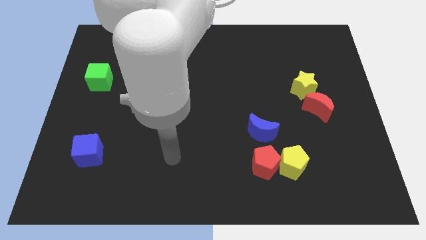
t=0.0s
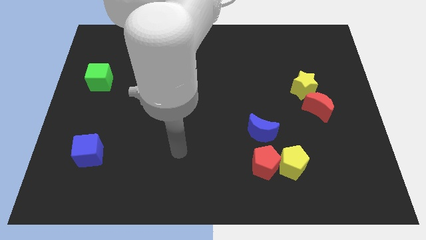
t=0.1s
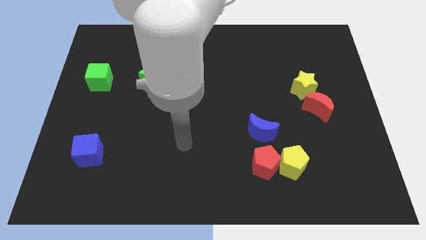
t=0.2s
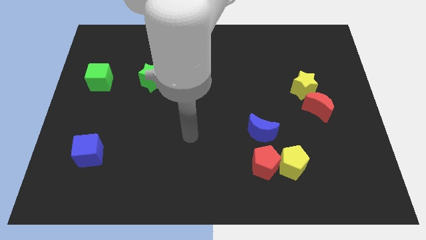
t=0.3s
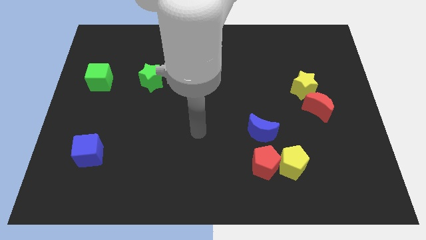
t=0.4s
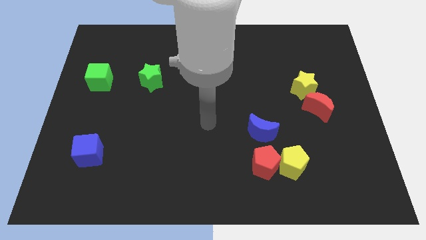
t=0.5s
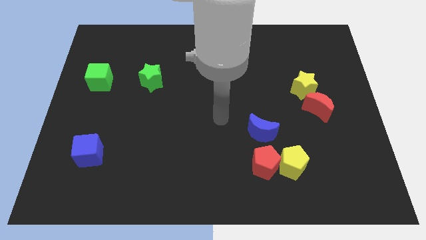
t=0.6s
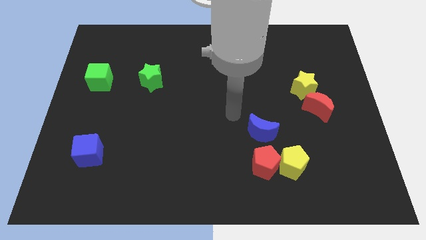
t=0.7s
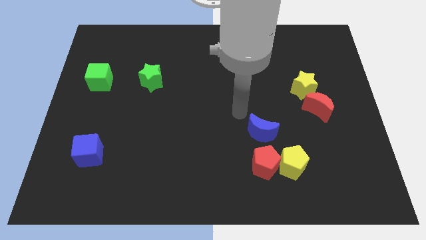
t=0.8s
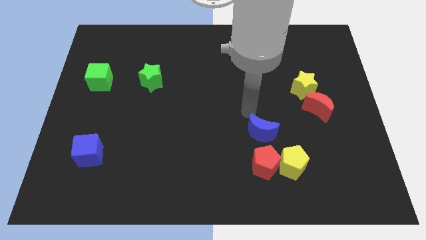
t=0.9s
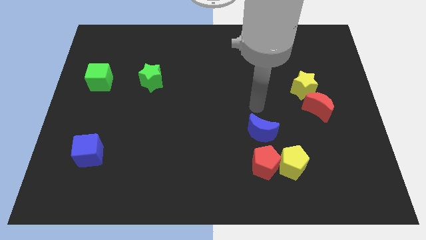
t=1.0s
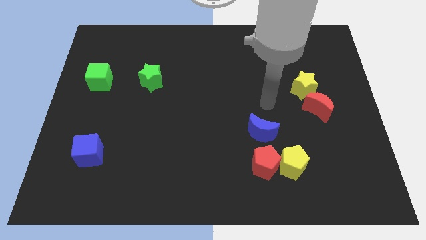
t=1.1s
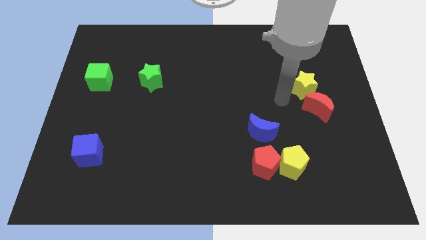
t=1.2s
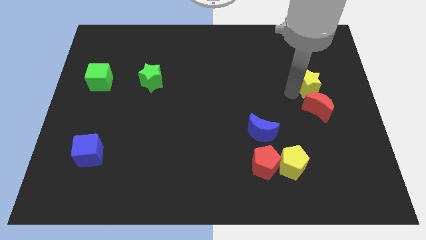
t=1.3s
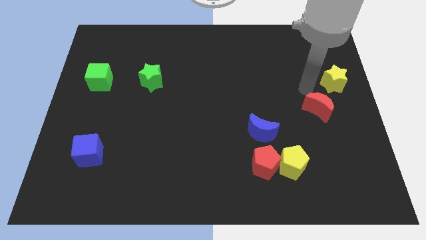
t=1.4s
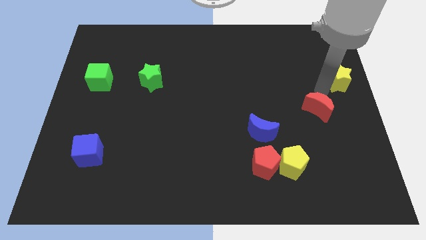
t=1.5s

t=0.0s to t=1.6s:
separate the red moon from the yellow star

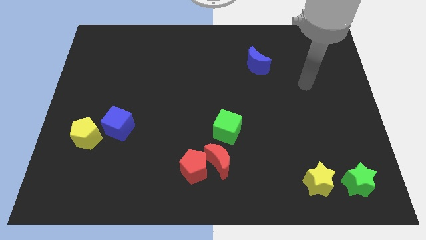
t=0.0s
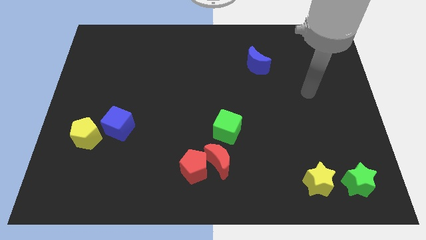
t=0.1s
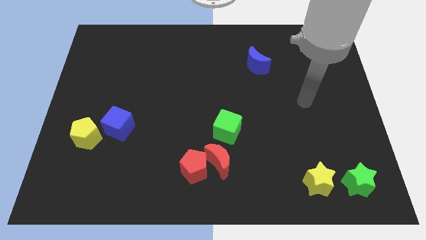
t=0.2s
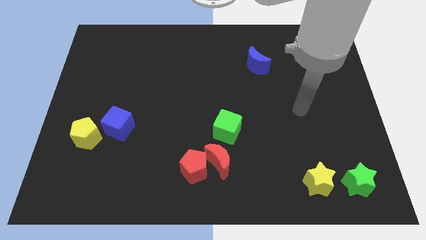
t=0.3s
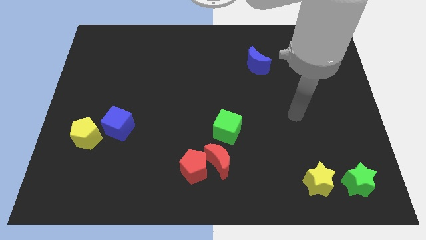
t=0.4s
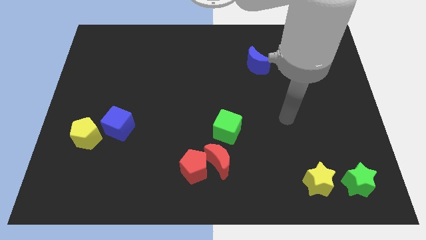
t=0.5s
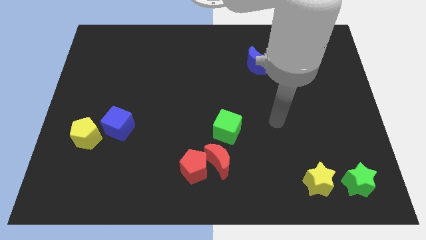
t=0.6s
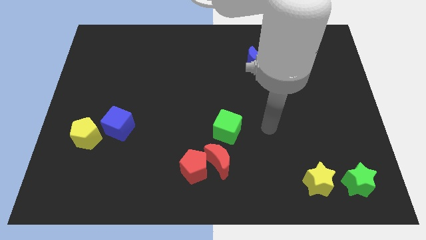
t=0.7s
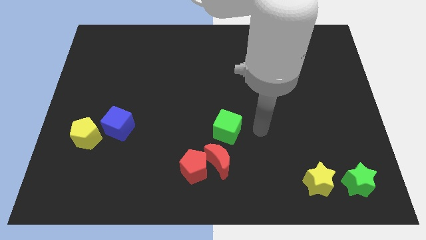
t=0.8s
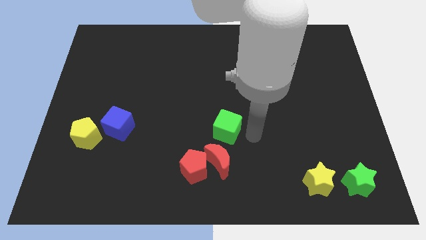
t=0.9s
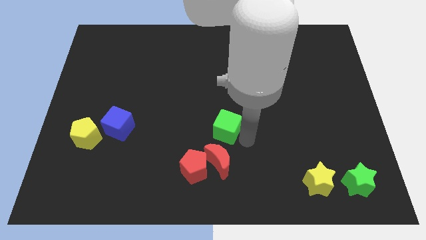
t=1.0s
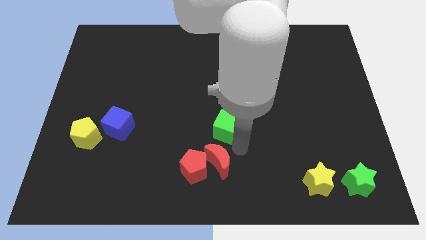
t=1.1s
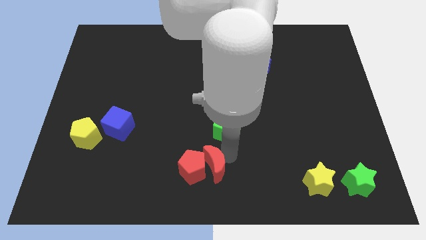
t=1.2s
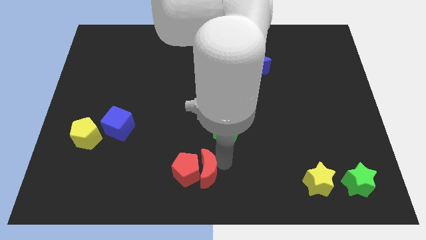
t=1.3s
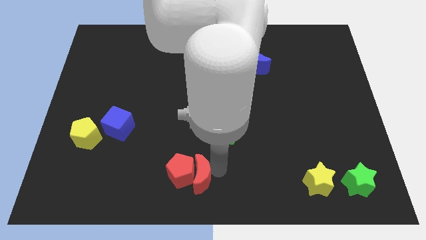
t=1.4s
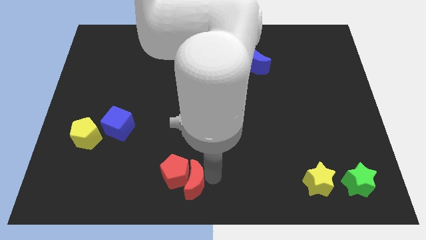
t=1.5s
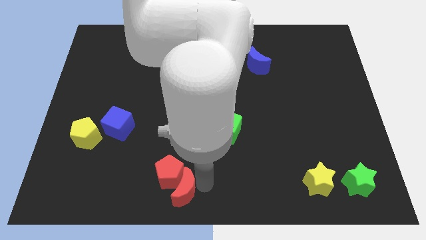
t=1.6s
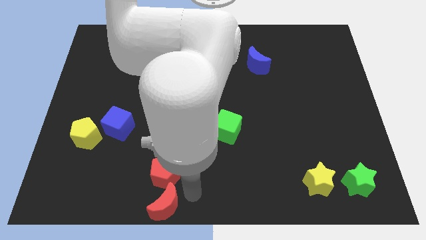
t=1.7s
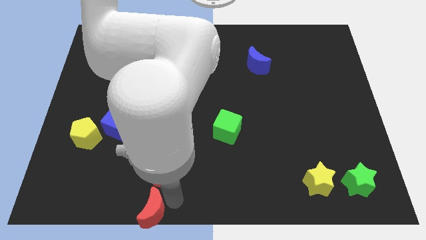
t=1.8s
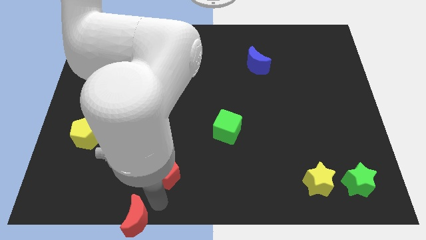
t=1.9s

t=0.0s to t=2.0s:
separate the red pentagon from the red moon

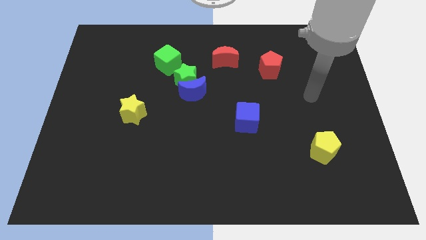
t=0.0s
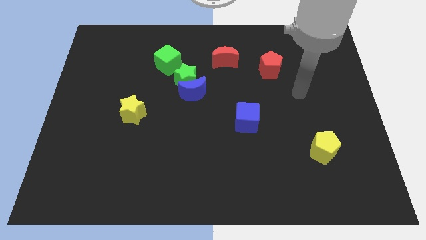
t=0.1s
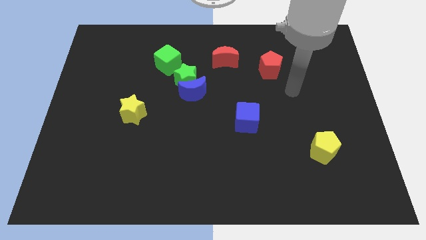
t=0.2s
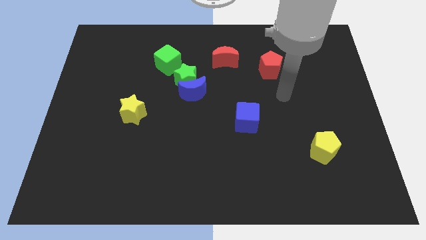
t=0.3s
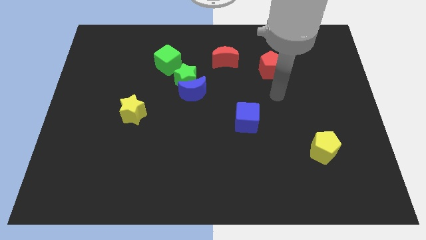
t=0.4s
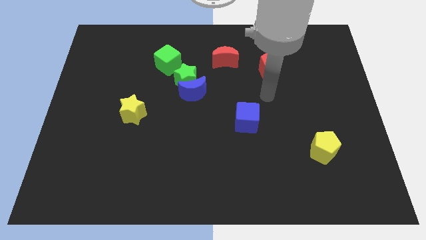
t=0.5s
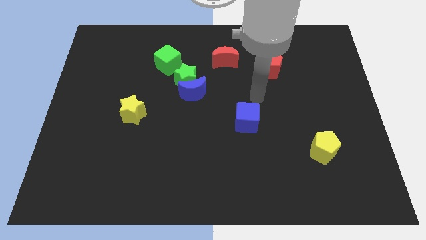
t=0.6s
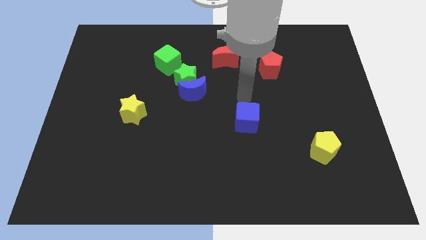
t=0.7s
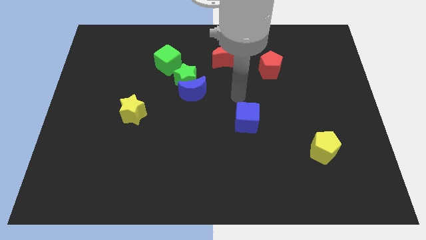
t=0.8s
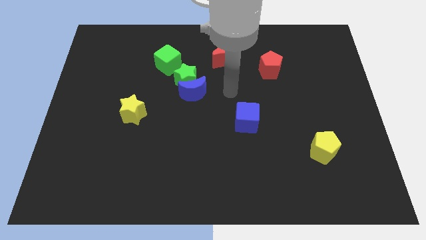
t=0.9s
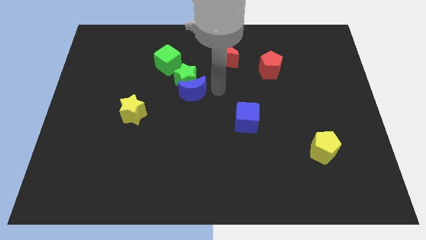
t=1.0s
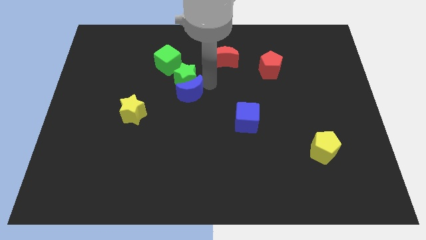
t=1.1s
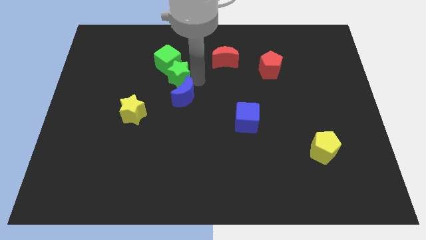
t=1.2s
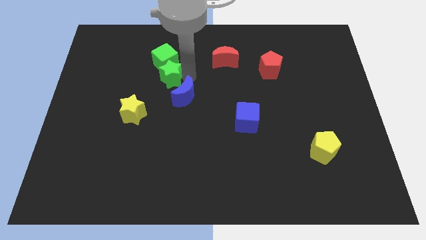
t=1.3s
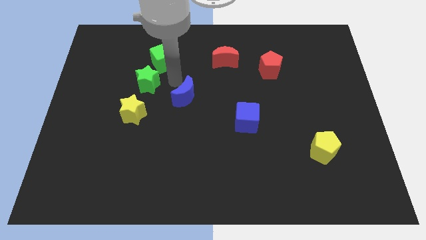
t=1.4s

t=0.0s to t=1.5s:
pull the blue moon apart from the green star

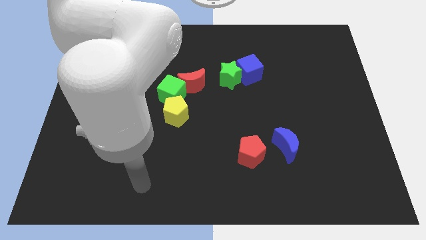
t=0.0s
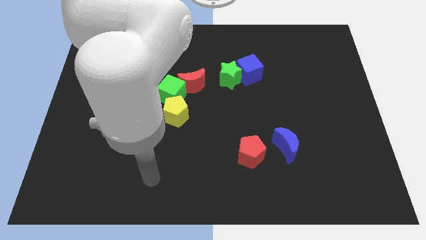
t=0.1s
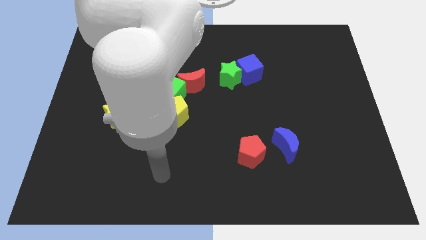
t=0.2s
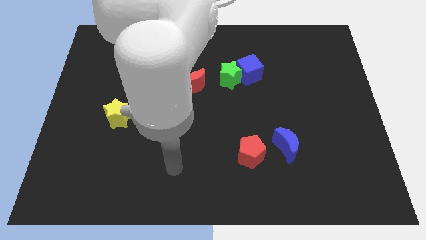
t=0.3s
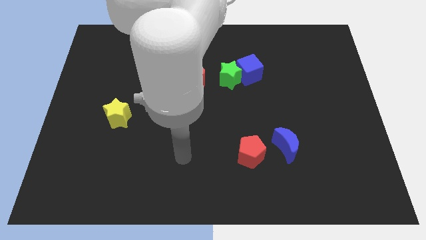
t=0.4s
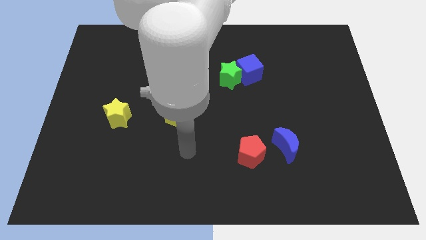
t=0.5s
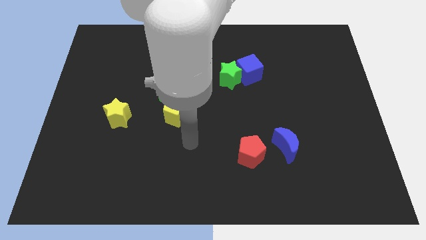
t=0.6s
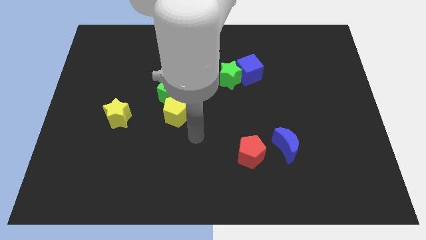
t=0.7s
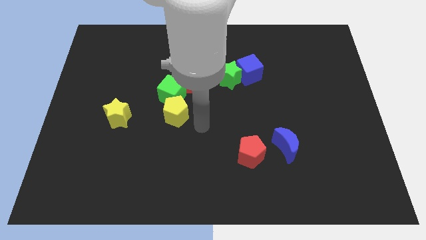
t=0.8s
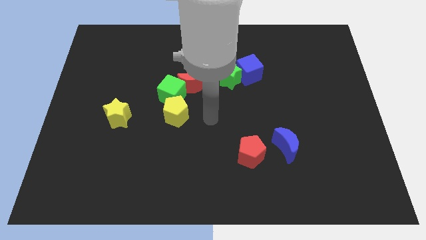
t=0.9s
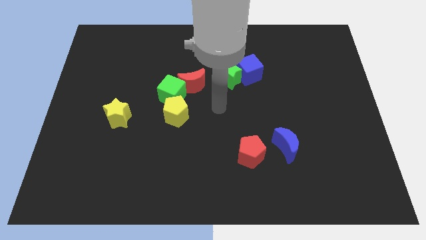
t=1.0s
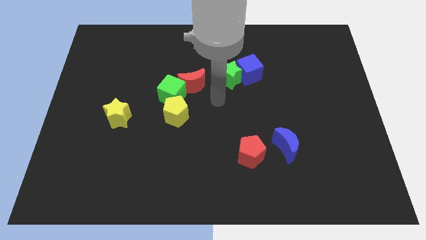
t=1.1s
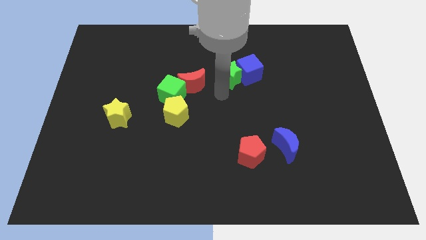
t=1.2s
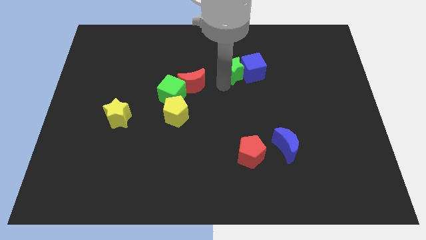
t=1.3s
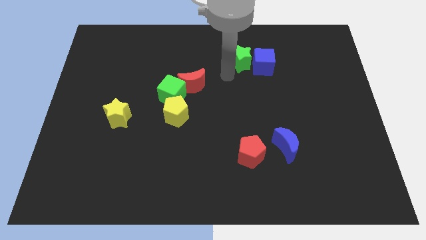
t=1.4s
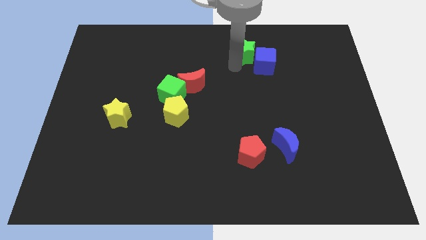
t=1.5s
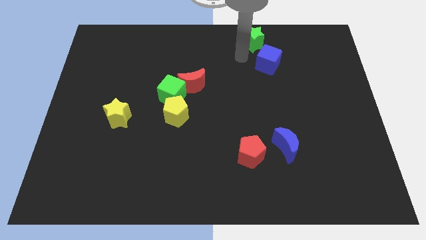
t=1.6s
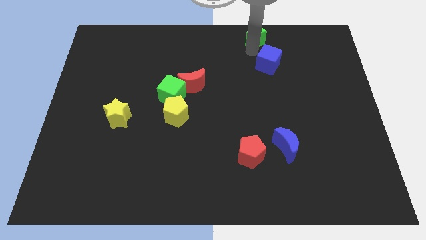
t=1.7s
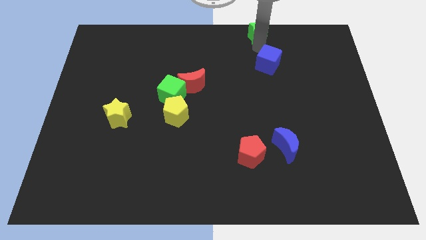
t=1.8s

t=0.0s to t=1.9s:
separate the blue cube from the green star

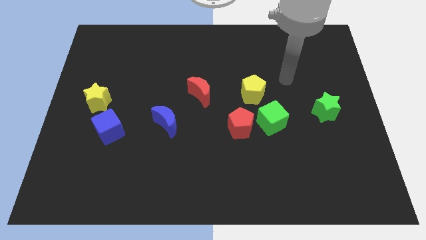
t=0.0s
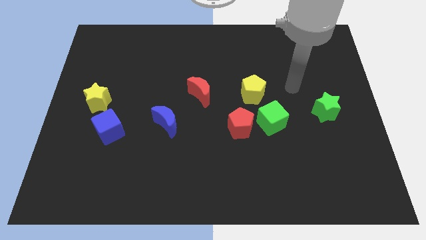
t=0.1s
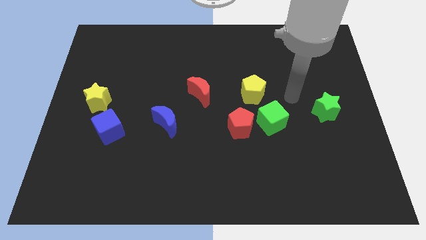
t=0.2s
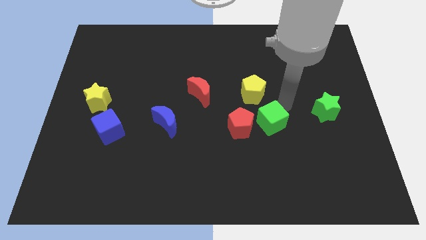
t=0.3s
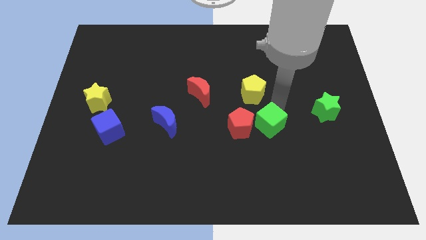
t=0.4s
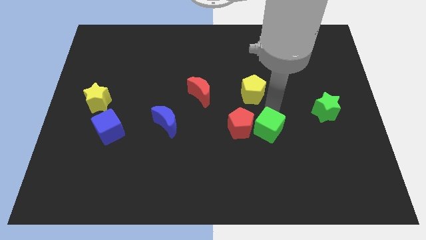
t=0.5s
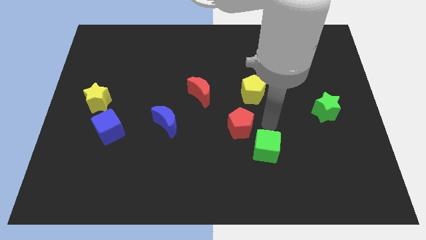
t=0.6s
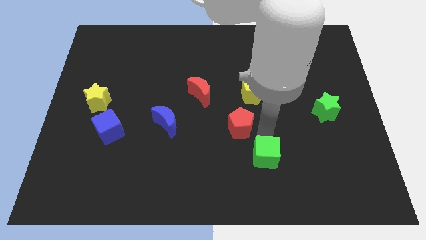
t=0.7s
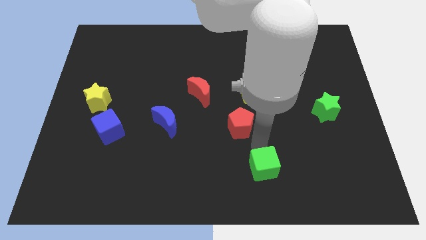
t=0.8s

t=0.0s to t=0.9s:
separate the red pentagon from the green cube

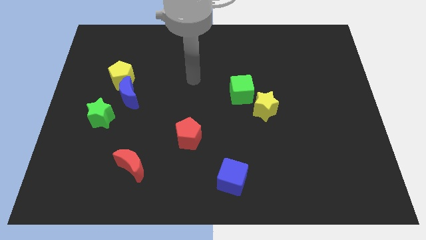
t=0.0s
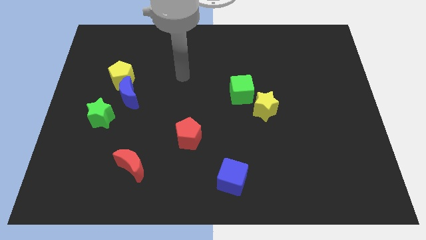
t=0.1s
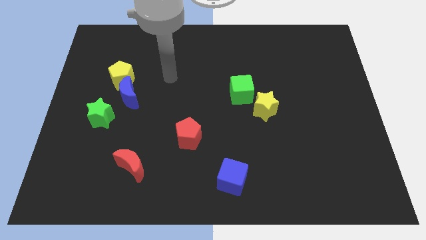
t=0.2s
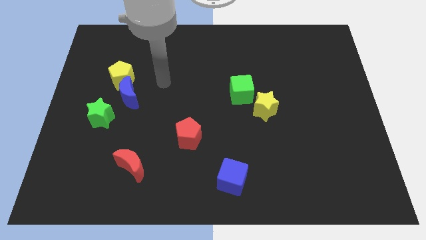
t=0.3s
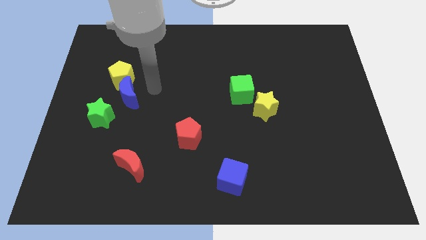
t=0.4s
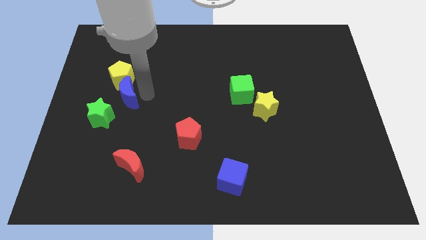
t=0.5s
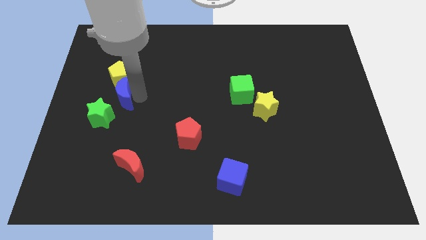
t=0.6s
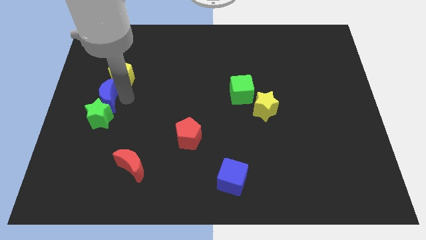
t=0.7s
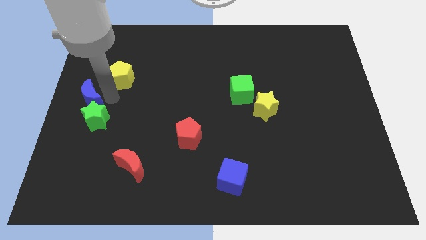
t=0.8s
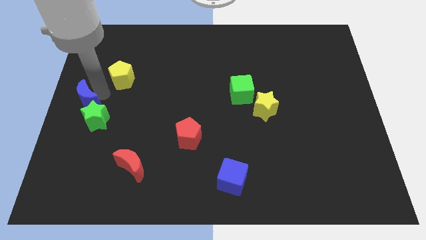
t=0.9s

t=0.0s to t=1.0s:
separate the yellow pentagon from the blue moon

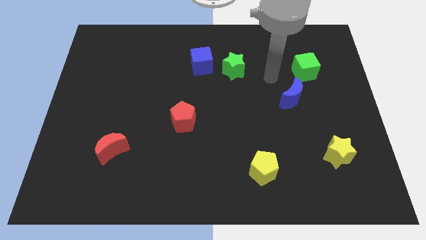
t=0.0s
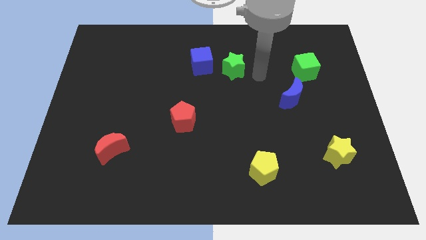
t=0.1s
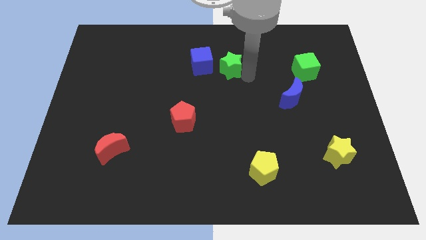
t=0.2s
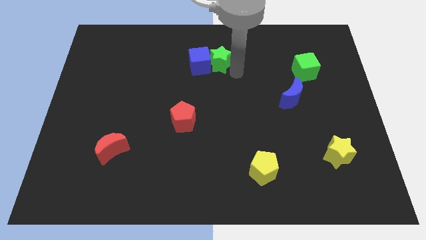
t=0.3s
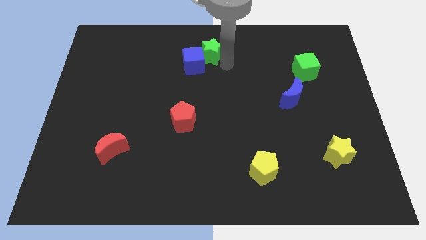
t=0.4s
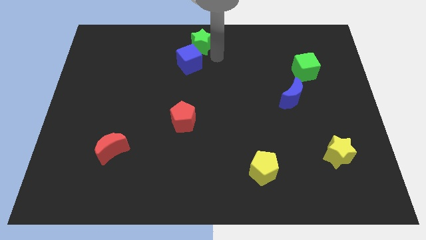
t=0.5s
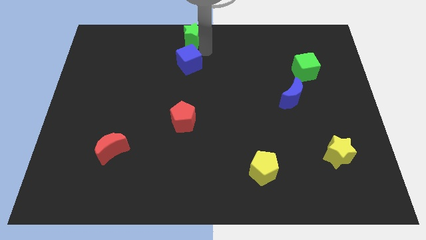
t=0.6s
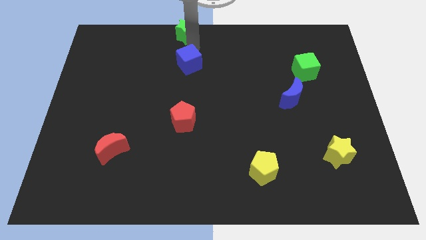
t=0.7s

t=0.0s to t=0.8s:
pull the blue cube apart from the green star
